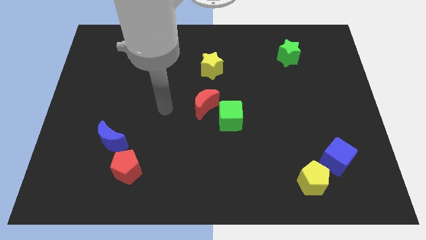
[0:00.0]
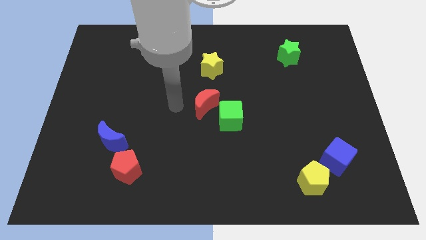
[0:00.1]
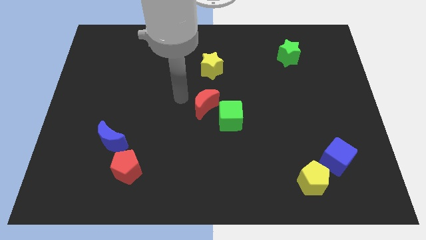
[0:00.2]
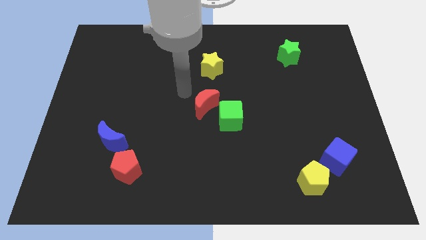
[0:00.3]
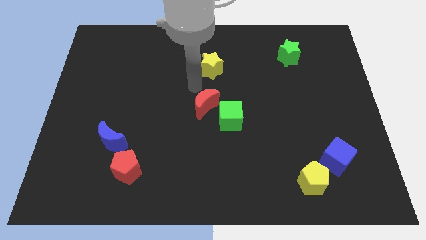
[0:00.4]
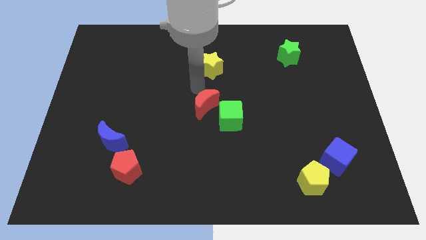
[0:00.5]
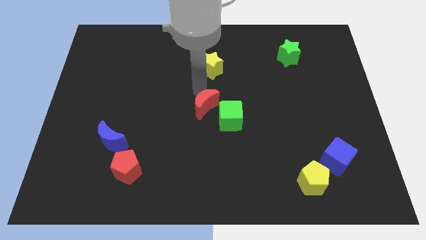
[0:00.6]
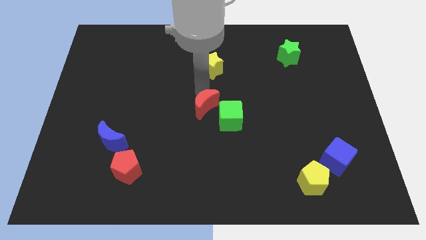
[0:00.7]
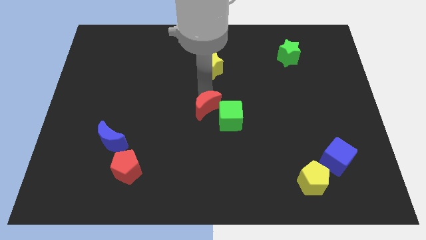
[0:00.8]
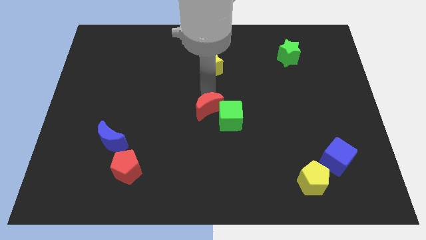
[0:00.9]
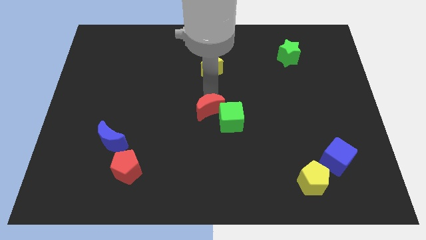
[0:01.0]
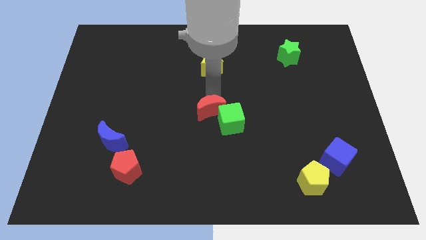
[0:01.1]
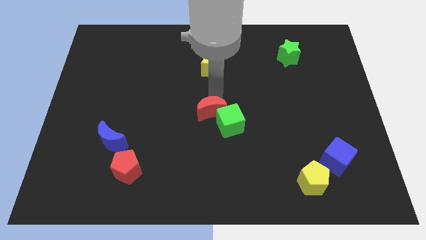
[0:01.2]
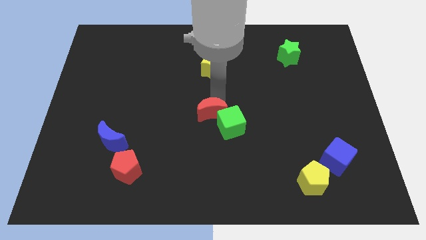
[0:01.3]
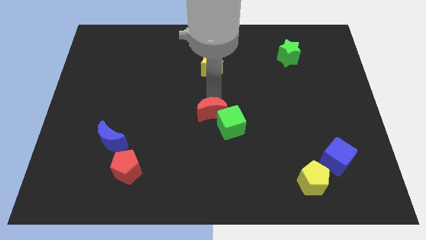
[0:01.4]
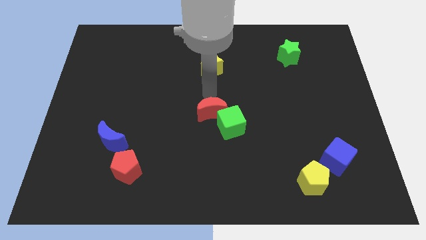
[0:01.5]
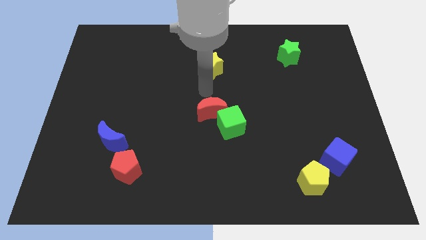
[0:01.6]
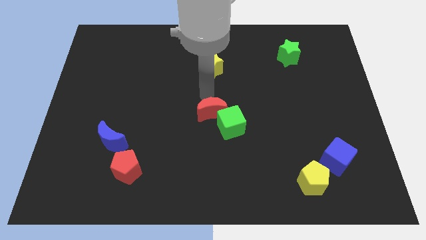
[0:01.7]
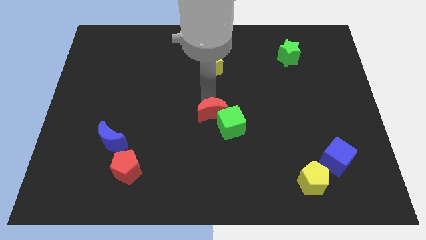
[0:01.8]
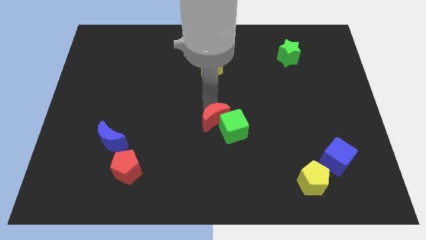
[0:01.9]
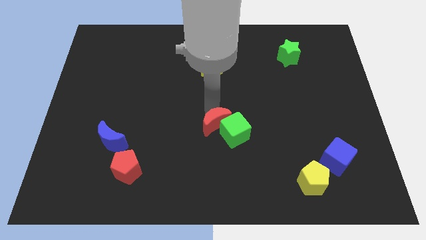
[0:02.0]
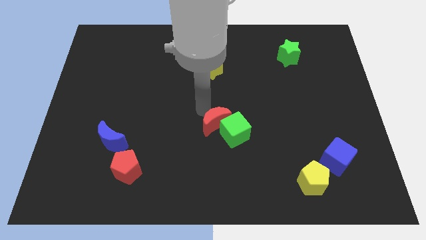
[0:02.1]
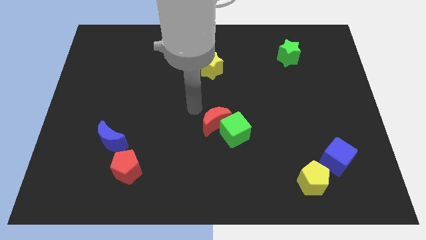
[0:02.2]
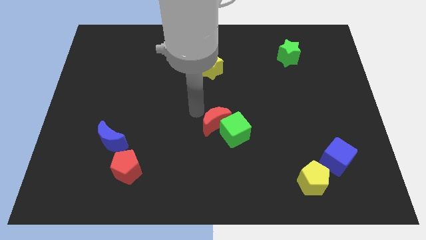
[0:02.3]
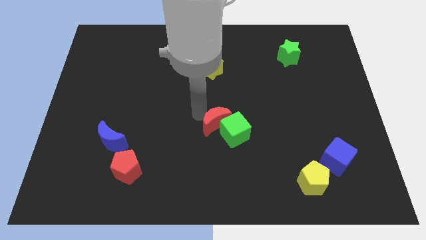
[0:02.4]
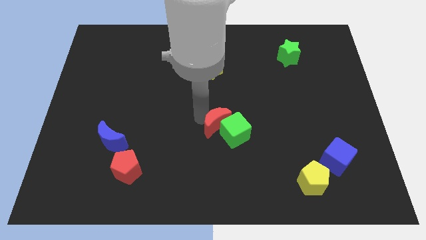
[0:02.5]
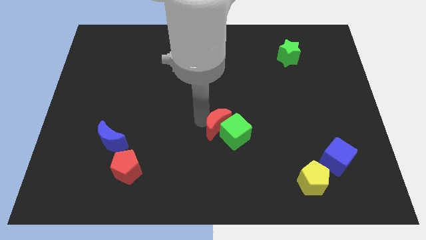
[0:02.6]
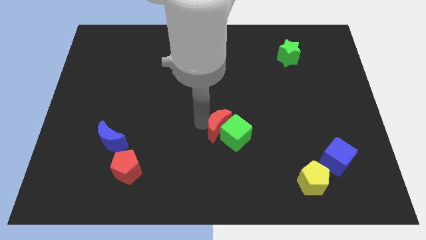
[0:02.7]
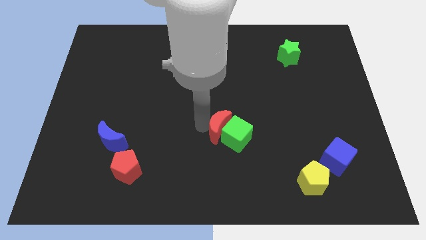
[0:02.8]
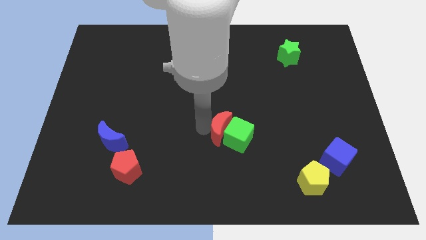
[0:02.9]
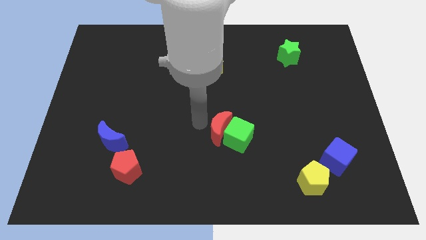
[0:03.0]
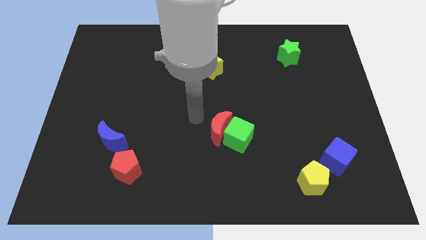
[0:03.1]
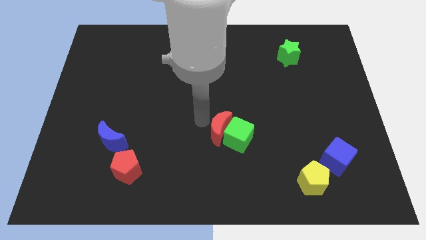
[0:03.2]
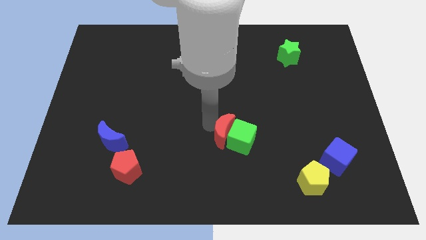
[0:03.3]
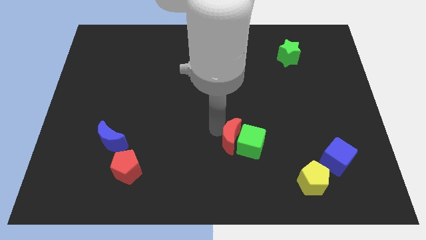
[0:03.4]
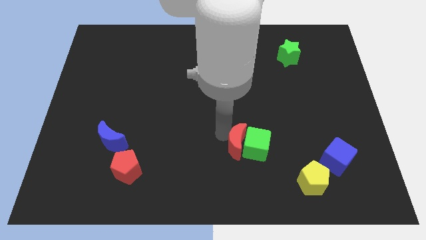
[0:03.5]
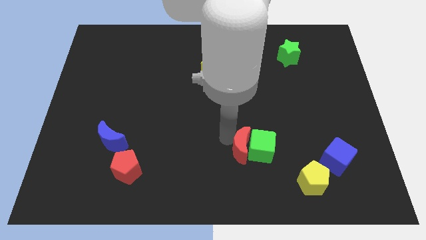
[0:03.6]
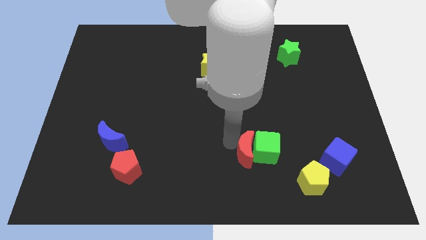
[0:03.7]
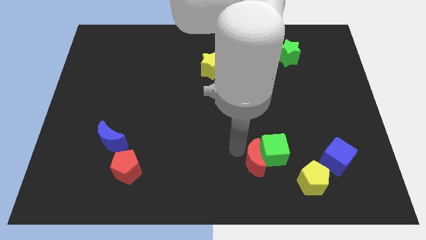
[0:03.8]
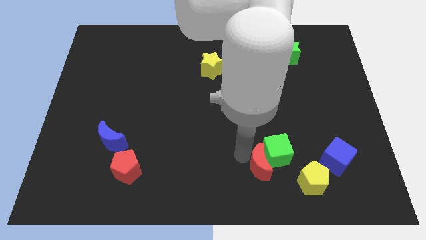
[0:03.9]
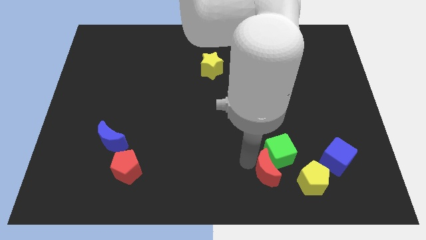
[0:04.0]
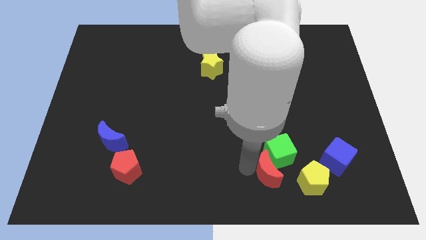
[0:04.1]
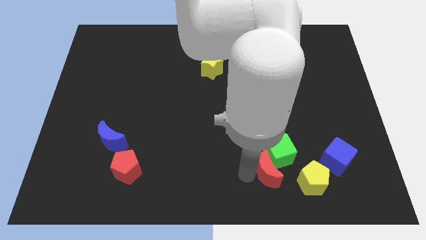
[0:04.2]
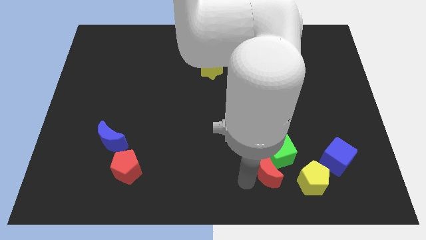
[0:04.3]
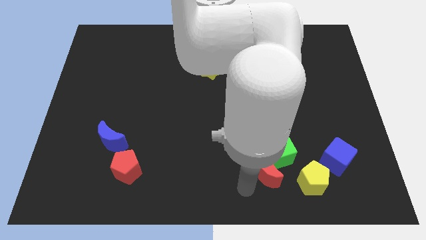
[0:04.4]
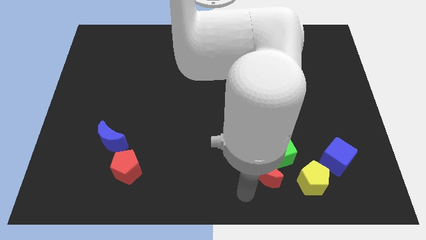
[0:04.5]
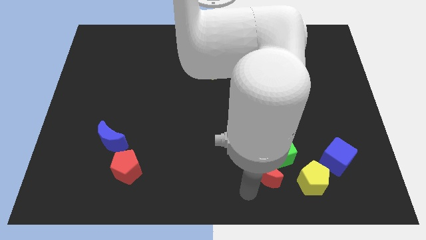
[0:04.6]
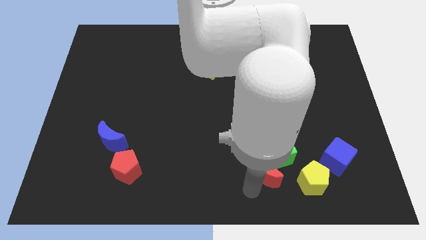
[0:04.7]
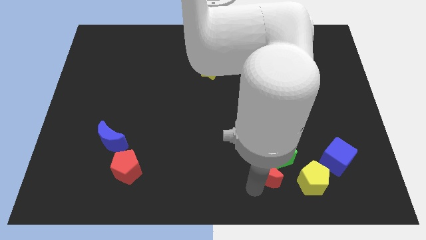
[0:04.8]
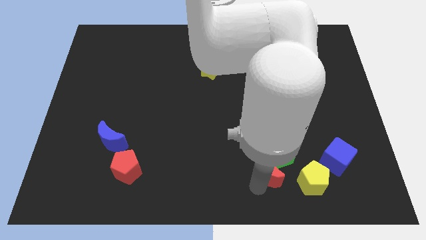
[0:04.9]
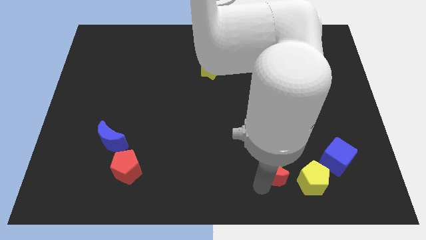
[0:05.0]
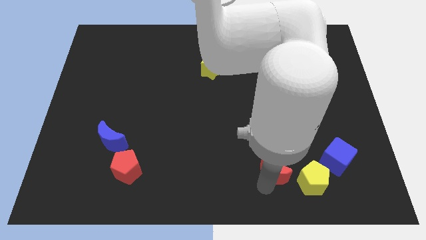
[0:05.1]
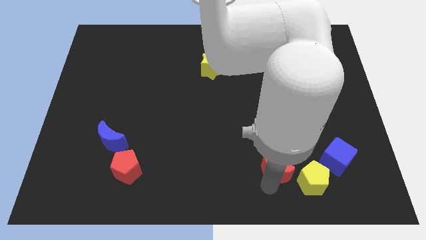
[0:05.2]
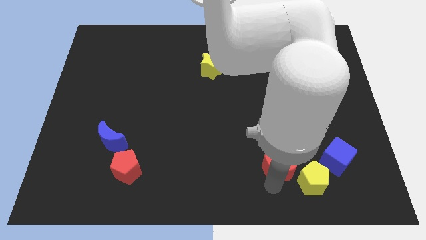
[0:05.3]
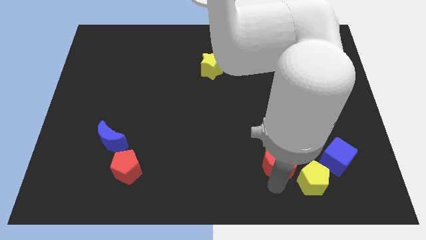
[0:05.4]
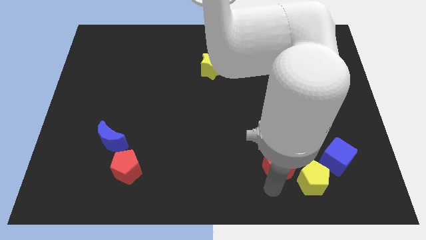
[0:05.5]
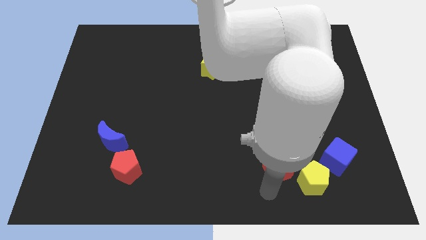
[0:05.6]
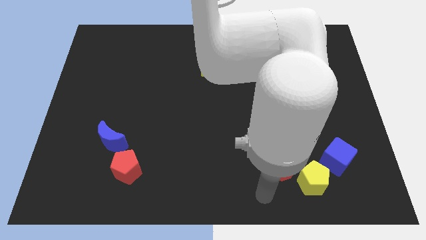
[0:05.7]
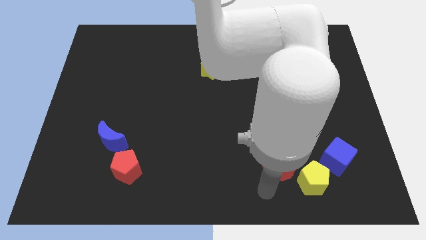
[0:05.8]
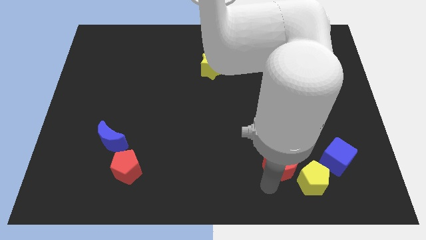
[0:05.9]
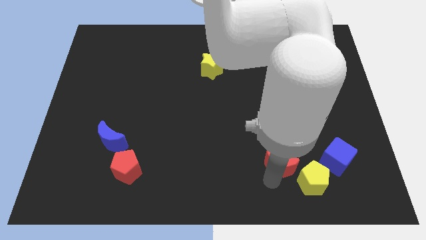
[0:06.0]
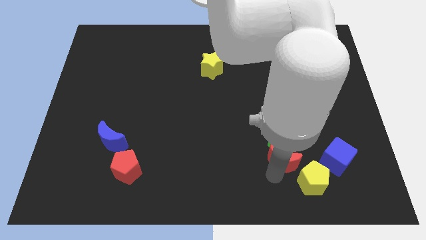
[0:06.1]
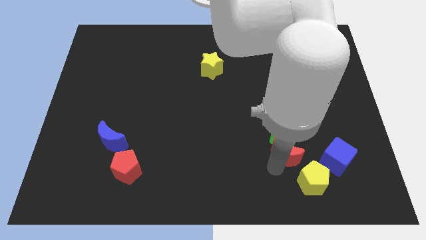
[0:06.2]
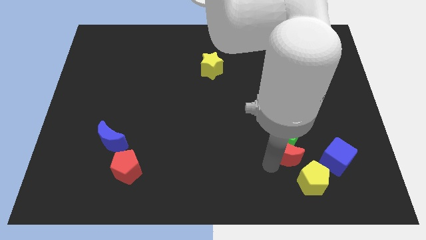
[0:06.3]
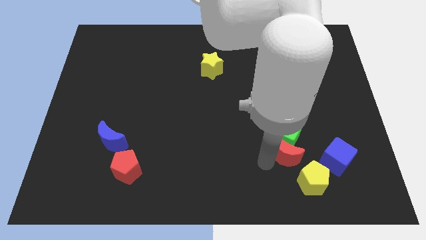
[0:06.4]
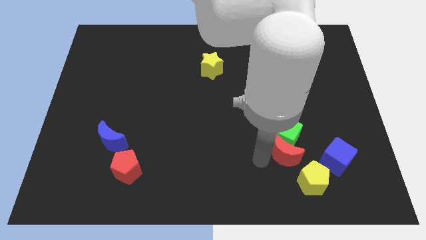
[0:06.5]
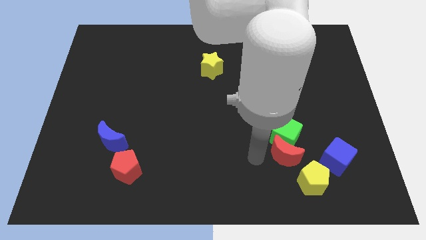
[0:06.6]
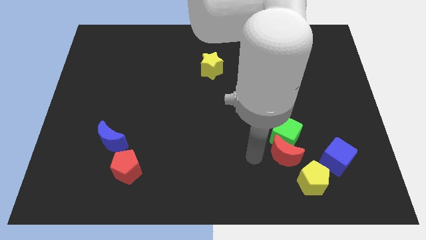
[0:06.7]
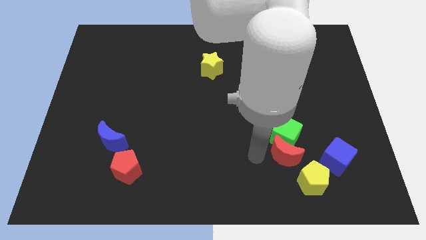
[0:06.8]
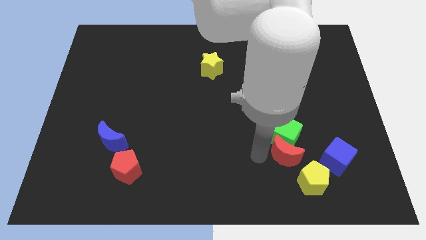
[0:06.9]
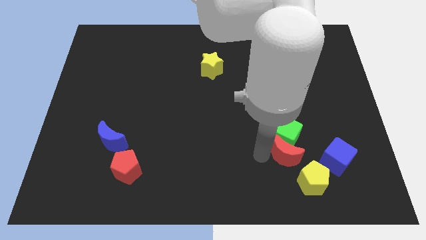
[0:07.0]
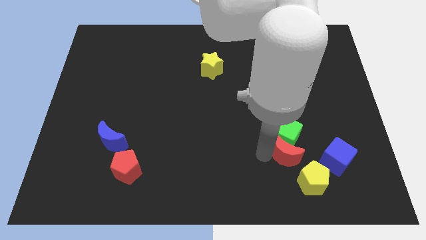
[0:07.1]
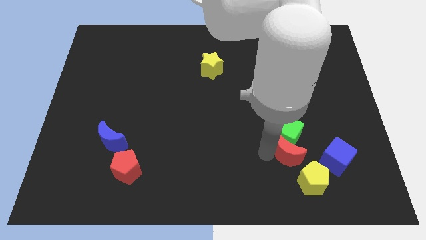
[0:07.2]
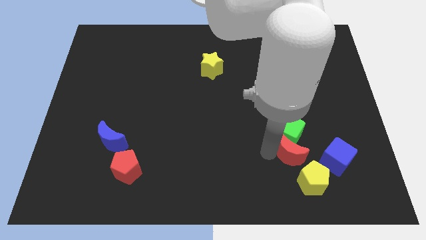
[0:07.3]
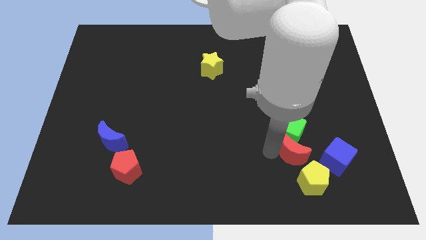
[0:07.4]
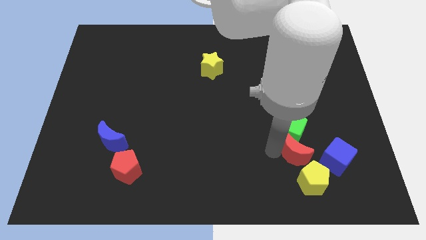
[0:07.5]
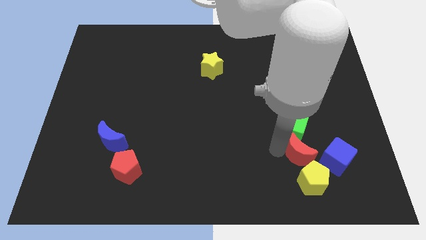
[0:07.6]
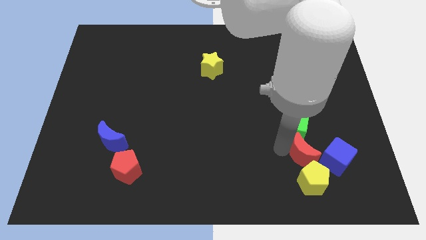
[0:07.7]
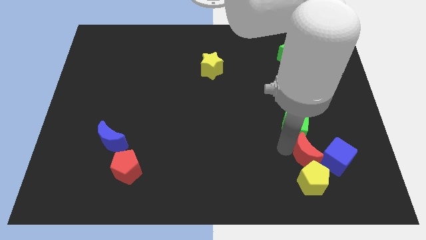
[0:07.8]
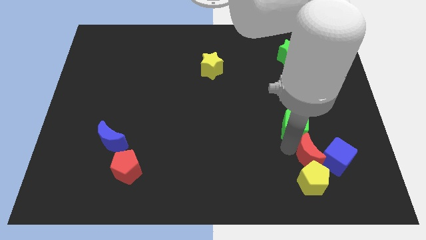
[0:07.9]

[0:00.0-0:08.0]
slide the red moon to the blue cube
